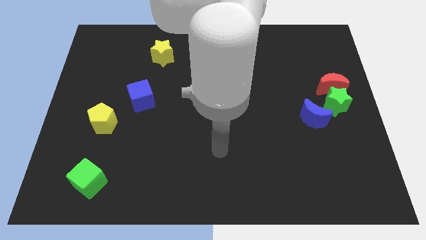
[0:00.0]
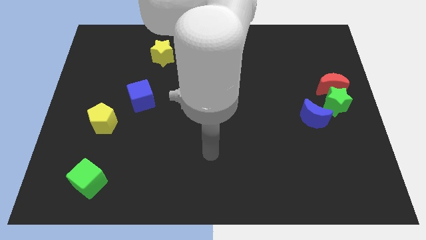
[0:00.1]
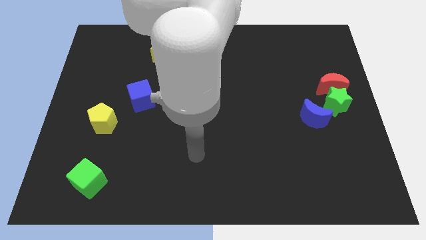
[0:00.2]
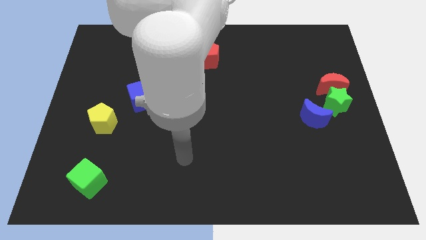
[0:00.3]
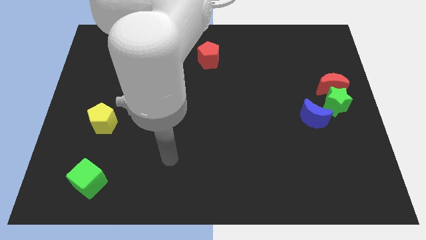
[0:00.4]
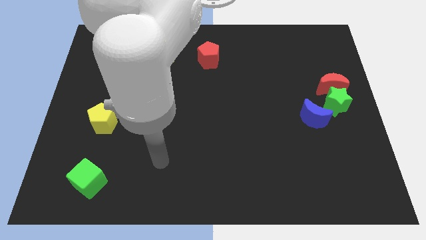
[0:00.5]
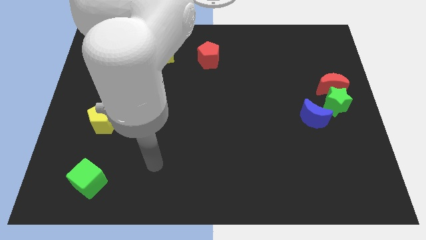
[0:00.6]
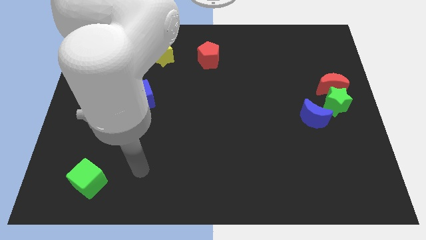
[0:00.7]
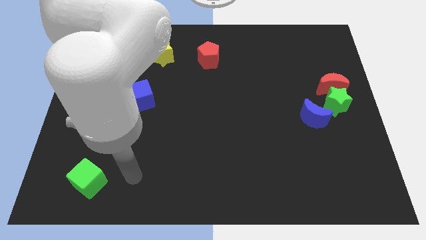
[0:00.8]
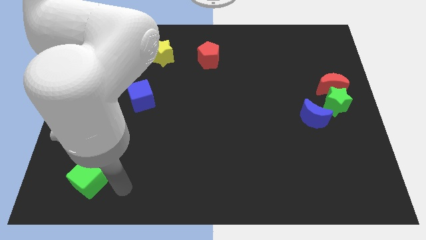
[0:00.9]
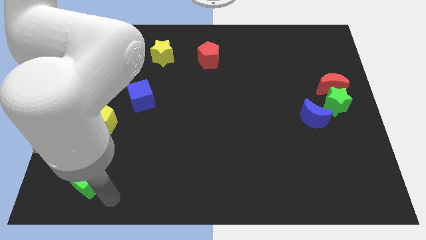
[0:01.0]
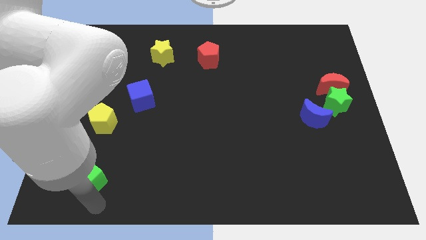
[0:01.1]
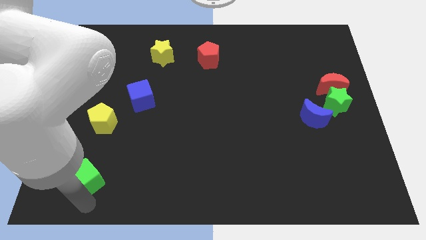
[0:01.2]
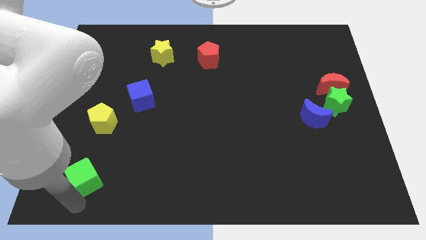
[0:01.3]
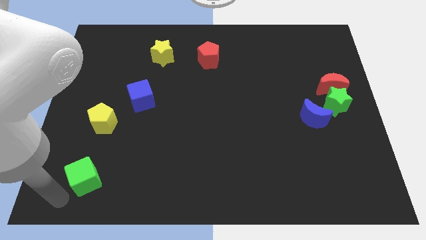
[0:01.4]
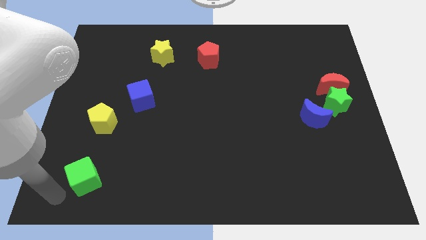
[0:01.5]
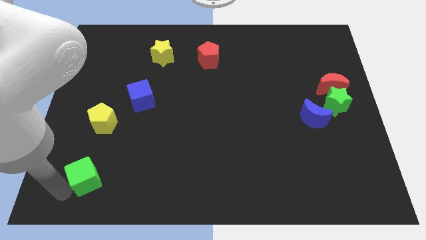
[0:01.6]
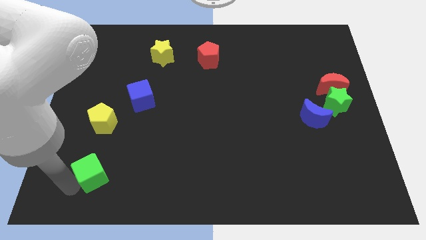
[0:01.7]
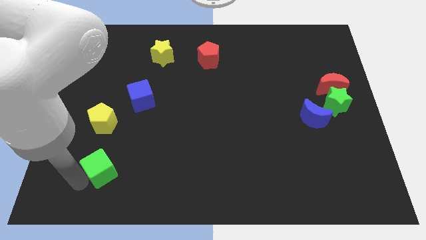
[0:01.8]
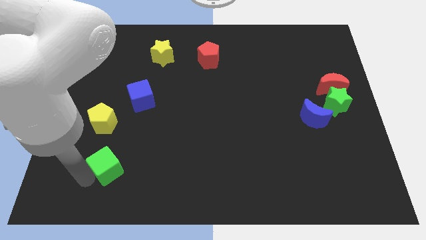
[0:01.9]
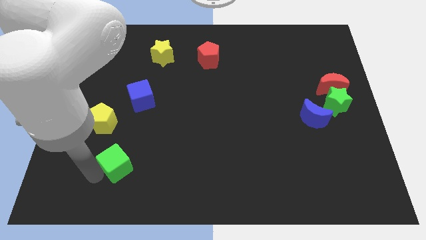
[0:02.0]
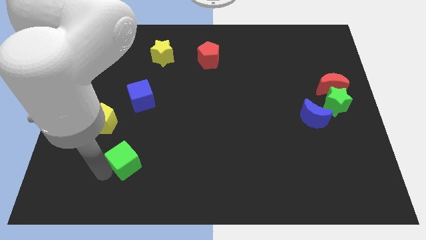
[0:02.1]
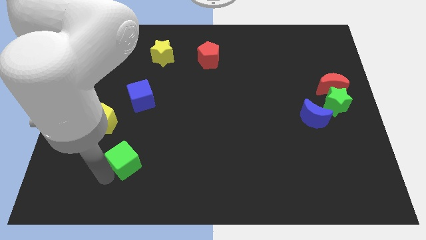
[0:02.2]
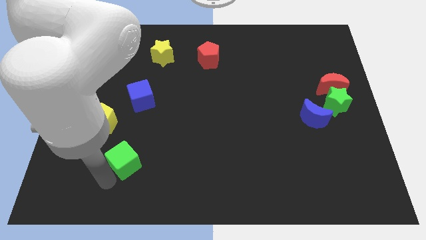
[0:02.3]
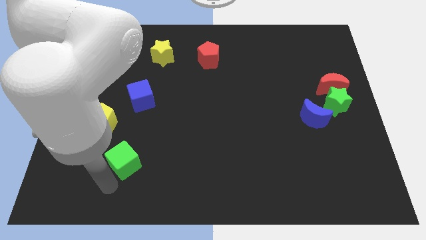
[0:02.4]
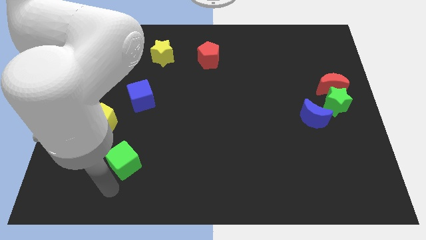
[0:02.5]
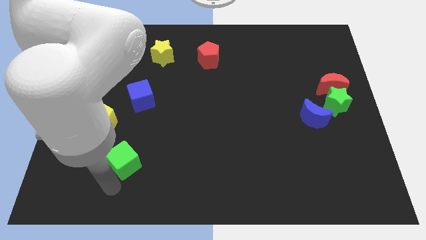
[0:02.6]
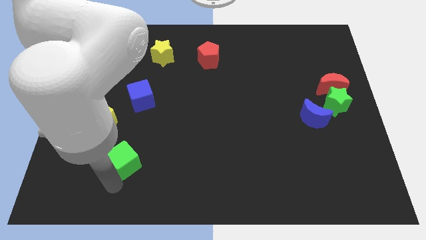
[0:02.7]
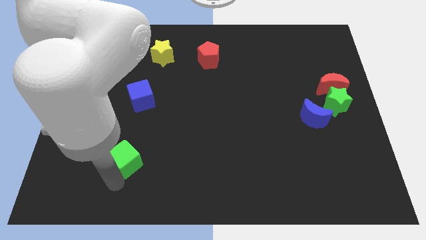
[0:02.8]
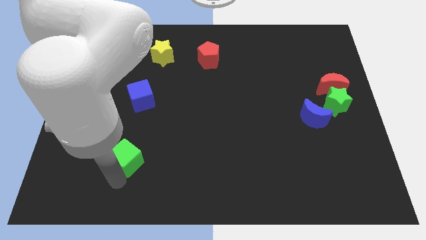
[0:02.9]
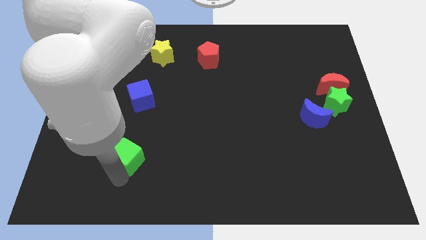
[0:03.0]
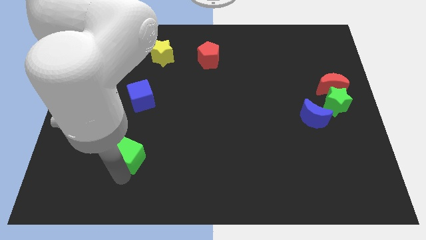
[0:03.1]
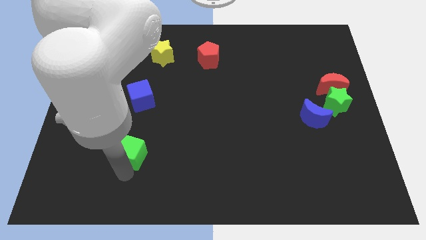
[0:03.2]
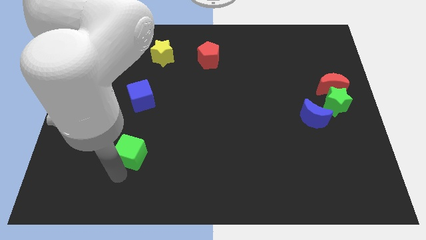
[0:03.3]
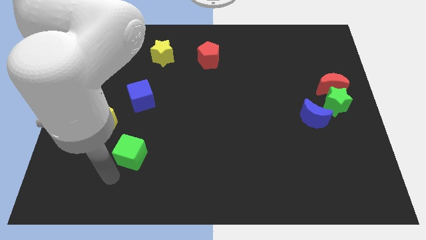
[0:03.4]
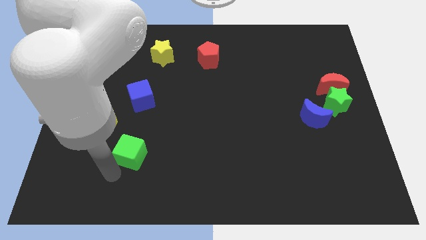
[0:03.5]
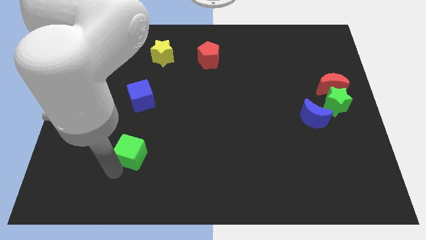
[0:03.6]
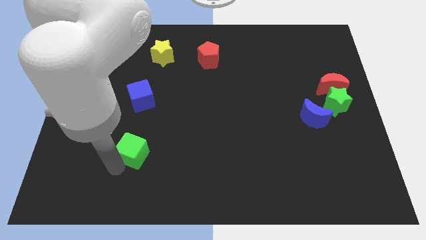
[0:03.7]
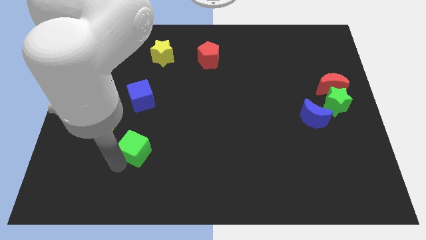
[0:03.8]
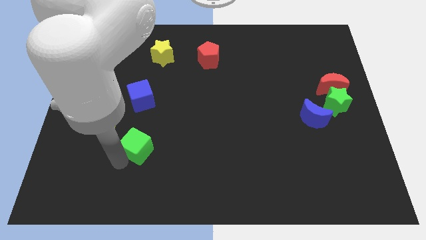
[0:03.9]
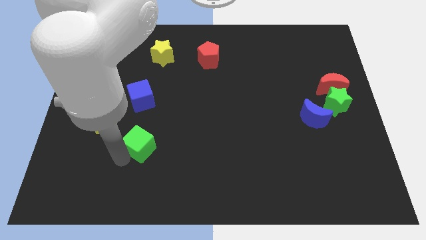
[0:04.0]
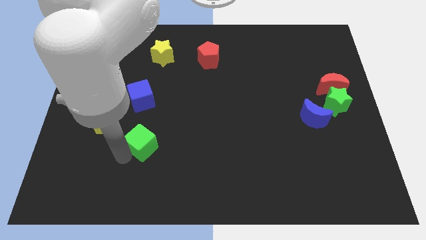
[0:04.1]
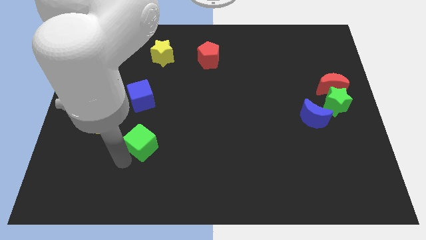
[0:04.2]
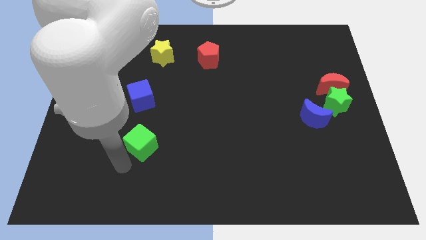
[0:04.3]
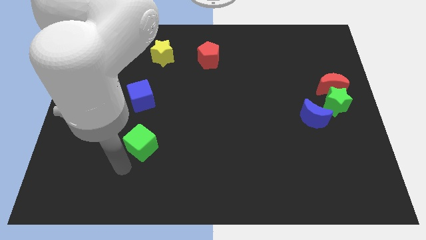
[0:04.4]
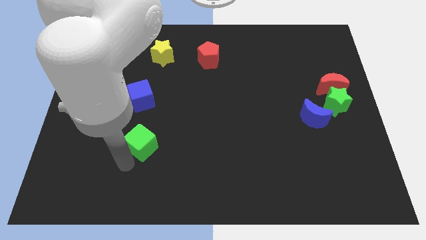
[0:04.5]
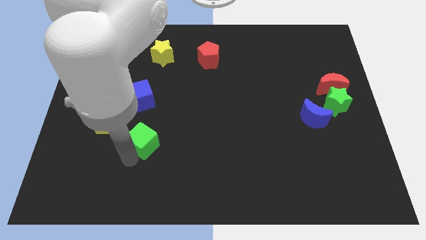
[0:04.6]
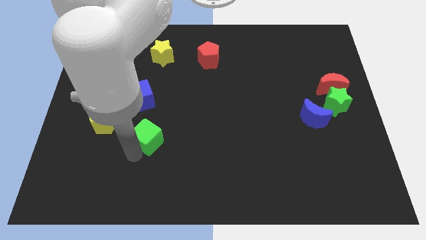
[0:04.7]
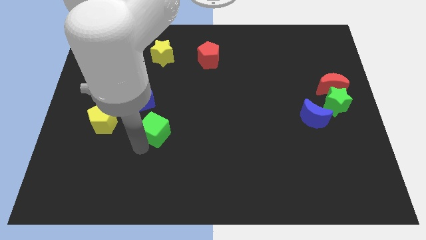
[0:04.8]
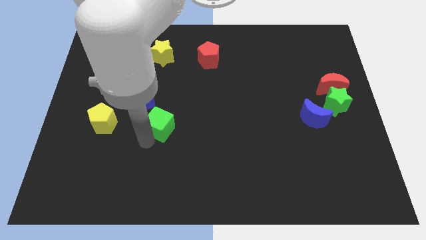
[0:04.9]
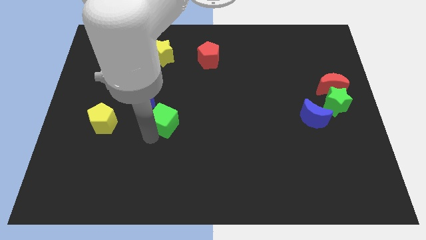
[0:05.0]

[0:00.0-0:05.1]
slide the green cube upwards and to the right

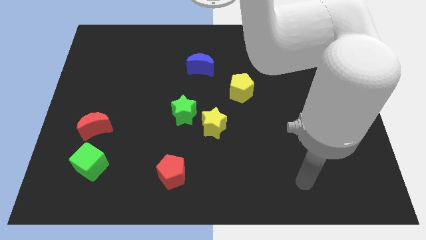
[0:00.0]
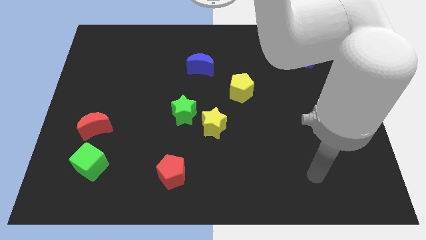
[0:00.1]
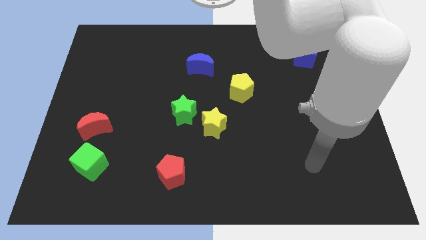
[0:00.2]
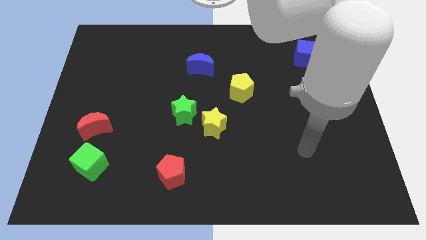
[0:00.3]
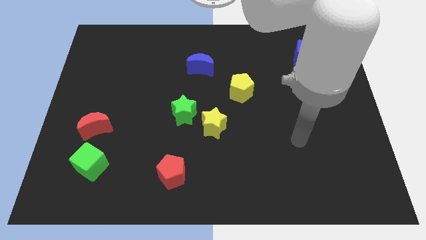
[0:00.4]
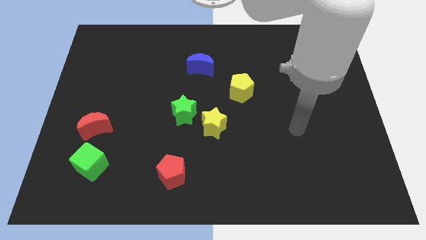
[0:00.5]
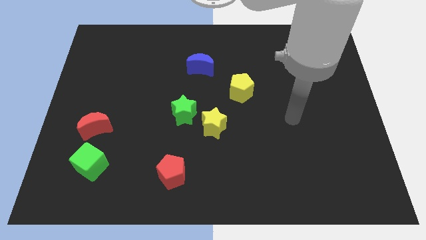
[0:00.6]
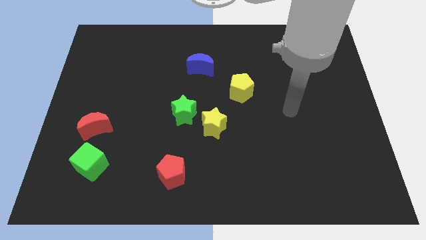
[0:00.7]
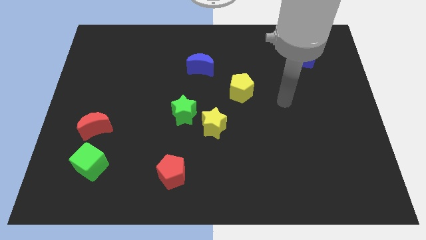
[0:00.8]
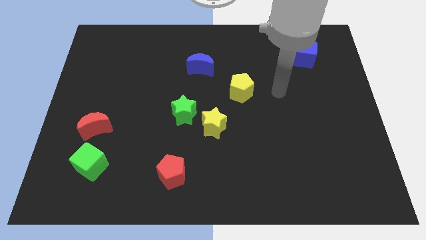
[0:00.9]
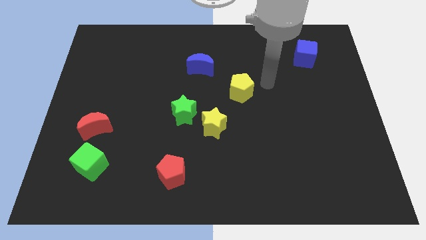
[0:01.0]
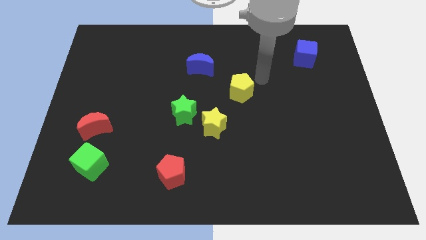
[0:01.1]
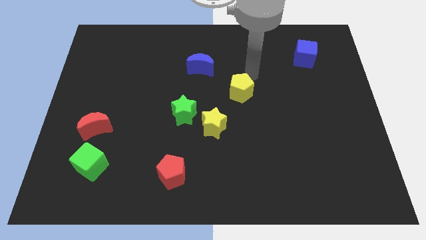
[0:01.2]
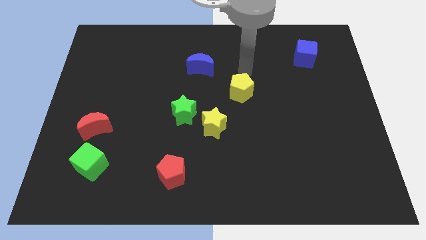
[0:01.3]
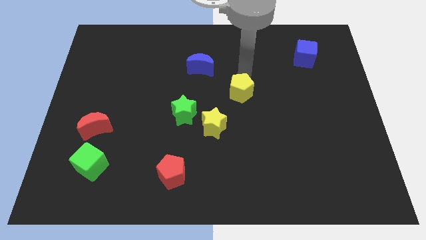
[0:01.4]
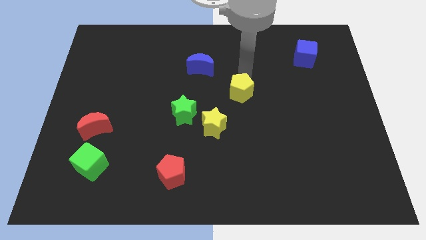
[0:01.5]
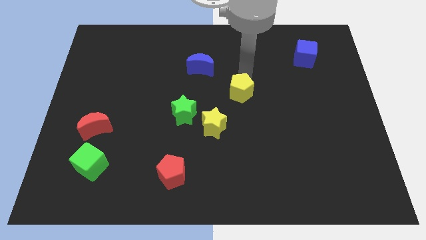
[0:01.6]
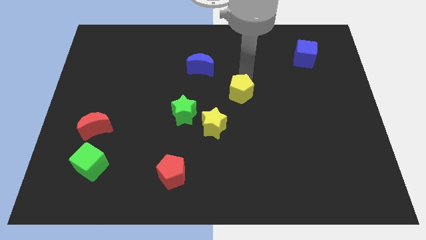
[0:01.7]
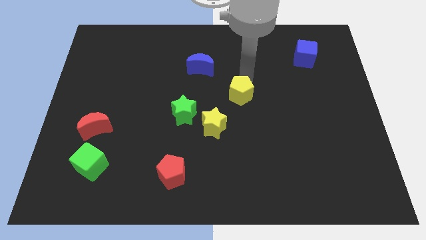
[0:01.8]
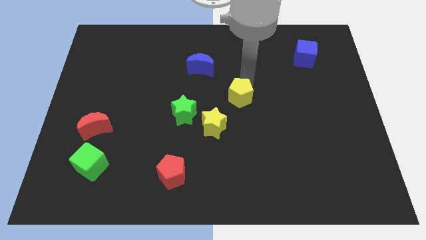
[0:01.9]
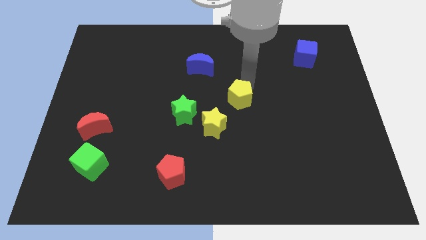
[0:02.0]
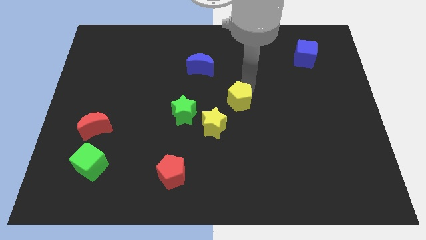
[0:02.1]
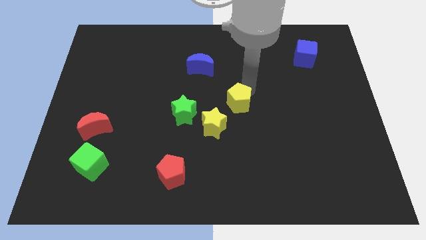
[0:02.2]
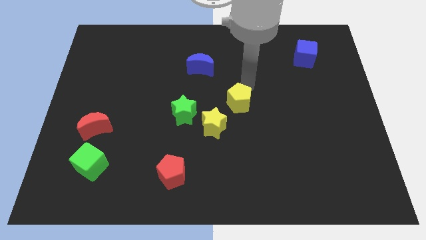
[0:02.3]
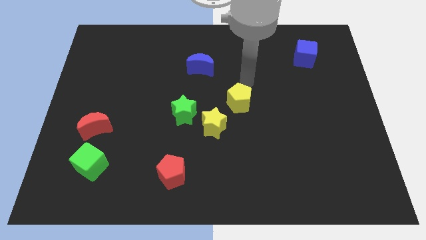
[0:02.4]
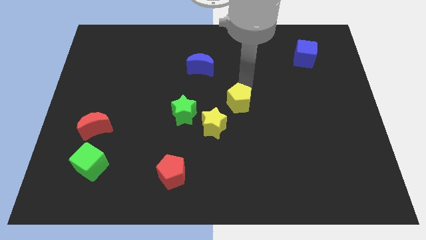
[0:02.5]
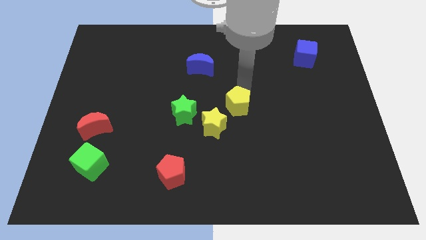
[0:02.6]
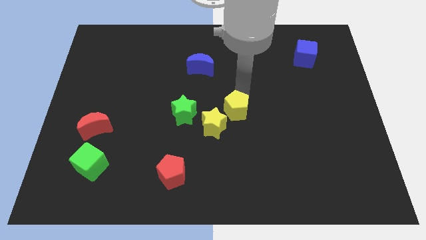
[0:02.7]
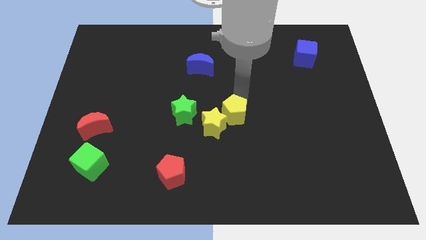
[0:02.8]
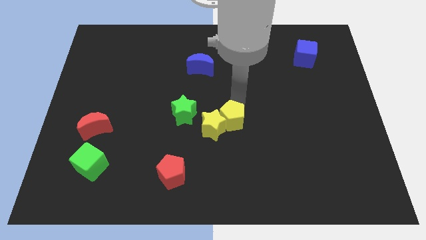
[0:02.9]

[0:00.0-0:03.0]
push the yellow pentagon somewhat diagonally downwards and to the left

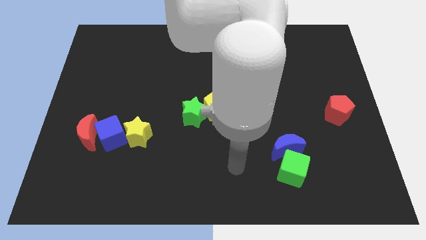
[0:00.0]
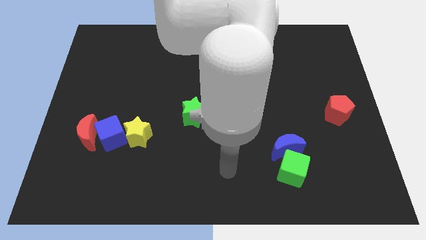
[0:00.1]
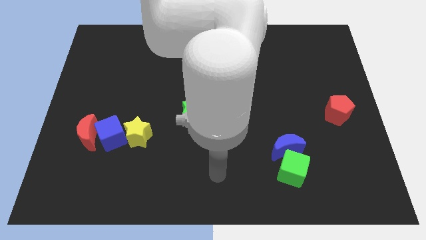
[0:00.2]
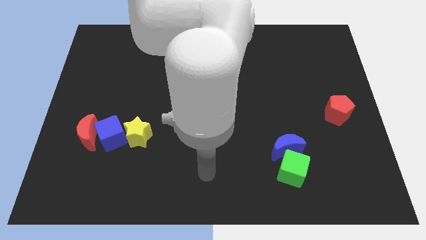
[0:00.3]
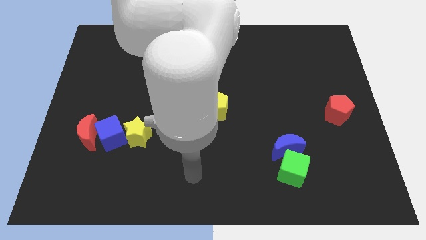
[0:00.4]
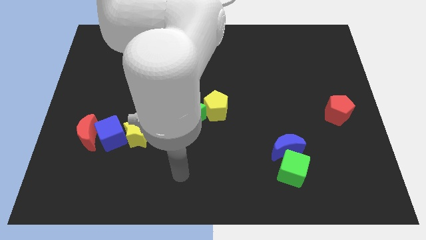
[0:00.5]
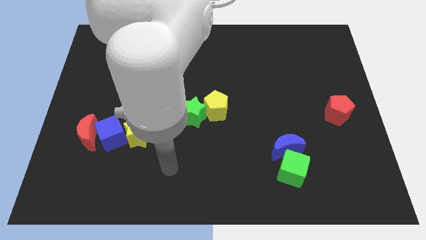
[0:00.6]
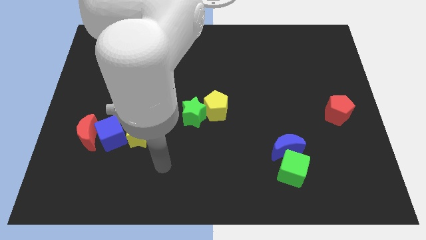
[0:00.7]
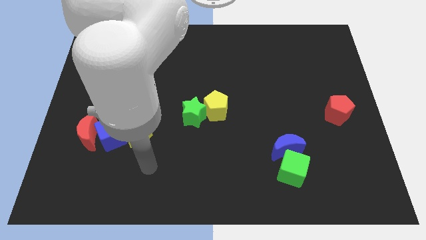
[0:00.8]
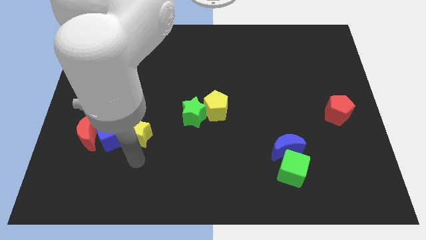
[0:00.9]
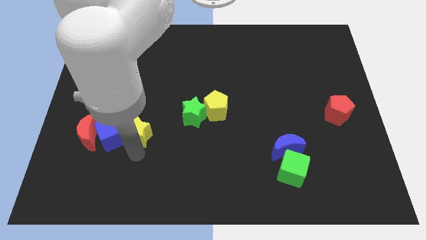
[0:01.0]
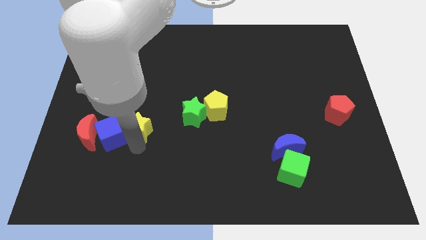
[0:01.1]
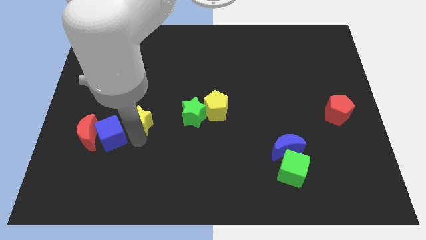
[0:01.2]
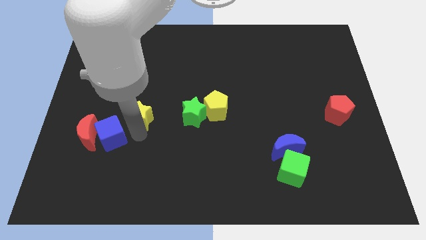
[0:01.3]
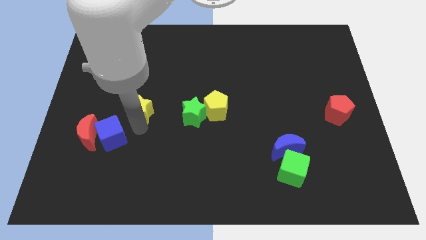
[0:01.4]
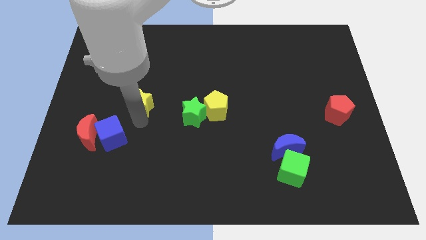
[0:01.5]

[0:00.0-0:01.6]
push the yellow star upwards a bit
